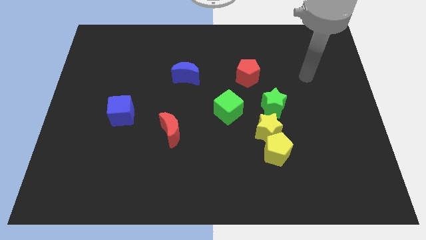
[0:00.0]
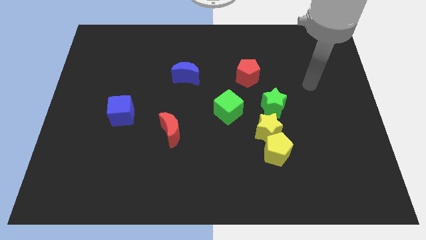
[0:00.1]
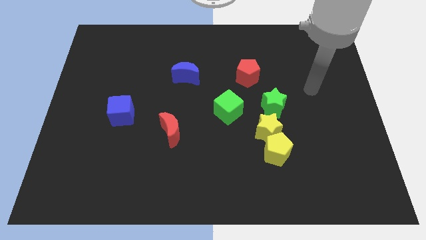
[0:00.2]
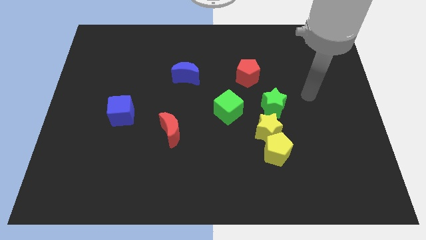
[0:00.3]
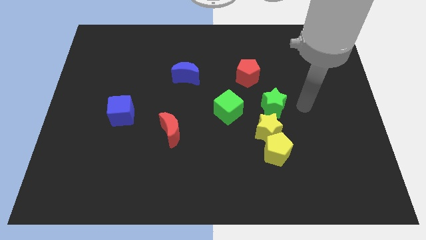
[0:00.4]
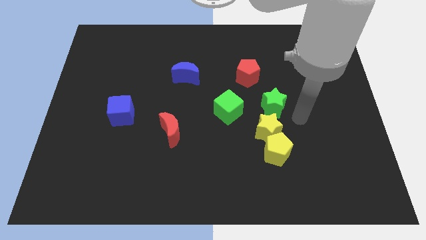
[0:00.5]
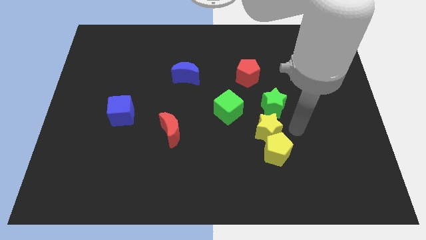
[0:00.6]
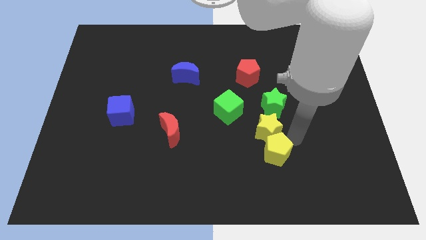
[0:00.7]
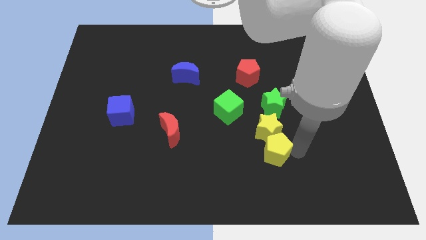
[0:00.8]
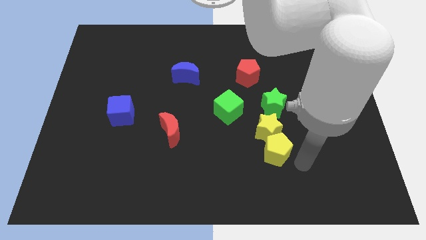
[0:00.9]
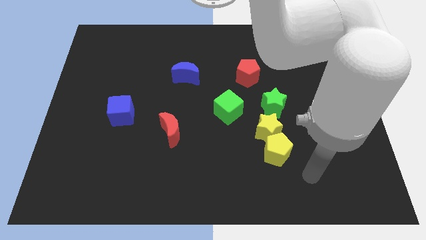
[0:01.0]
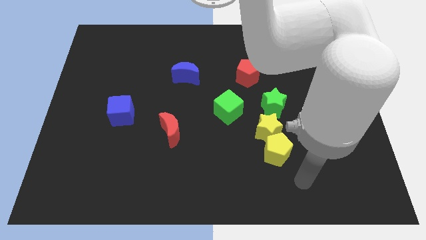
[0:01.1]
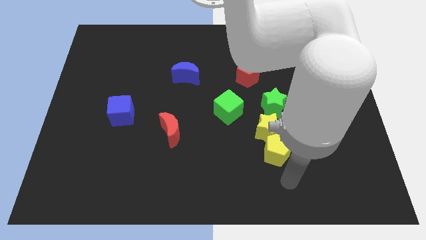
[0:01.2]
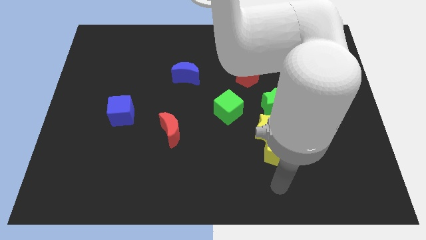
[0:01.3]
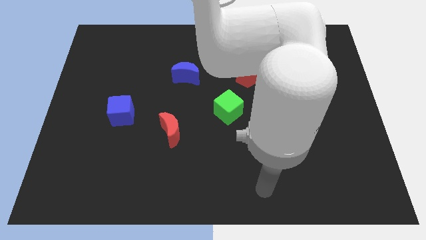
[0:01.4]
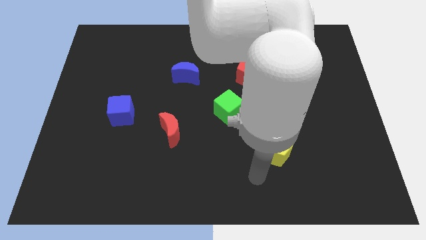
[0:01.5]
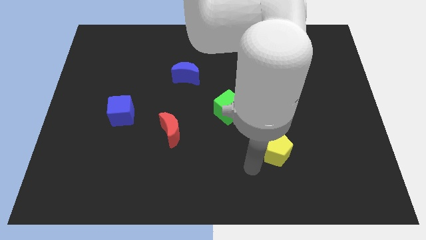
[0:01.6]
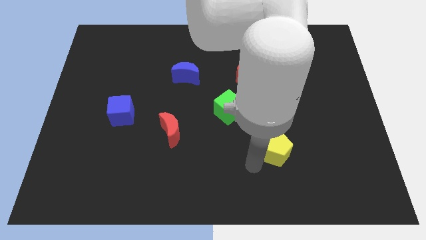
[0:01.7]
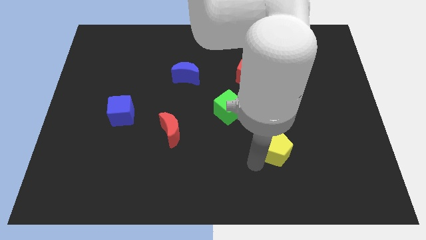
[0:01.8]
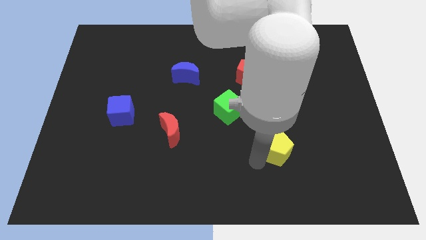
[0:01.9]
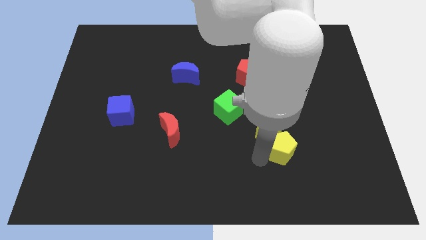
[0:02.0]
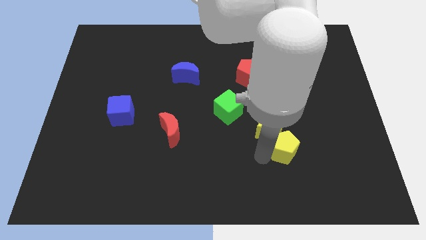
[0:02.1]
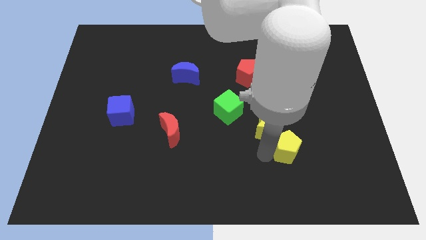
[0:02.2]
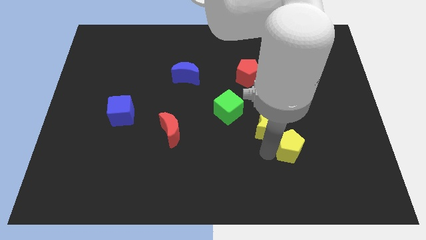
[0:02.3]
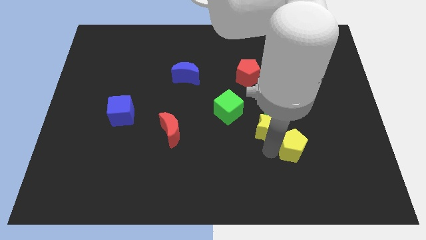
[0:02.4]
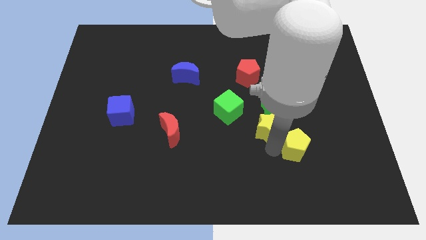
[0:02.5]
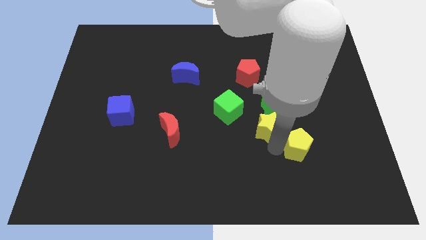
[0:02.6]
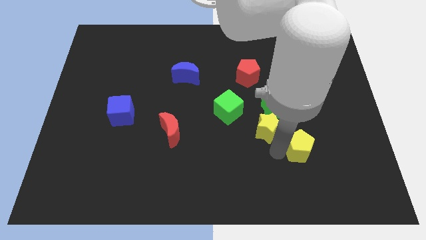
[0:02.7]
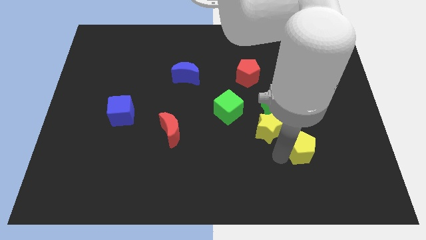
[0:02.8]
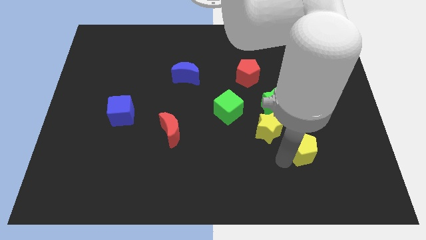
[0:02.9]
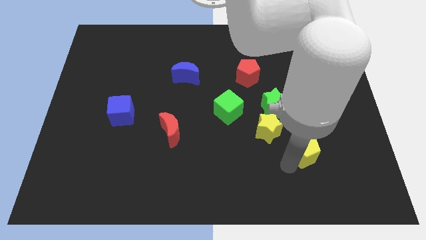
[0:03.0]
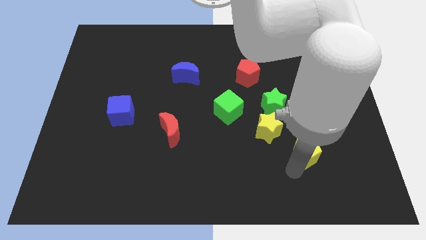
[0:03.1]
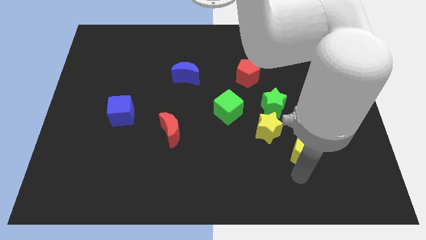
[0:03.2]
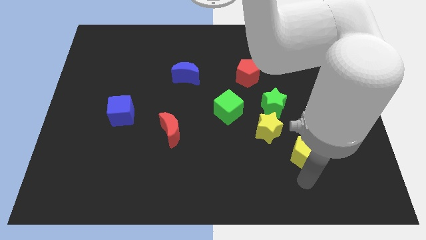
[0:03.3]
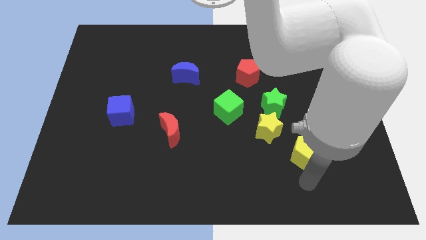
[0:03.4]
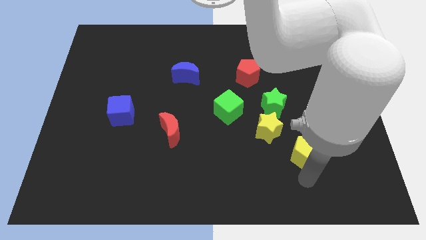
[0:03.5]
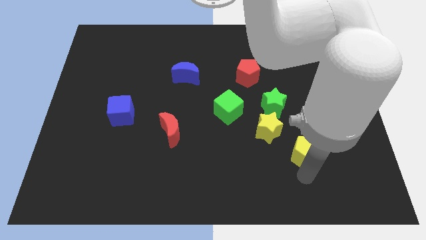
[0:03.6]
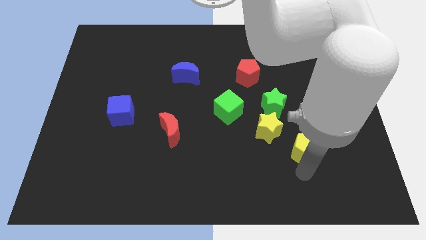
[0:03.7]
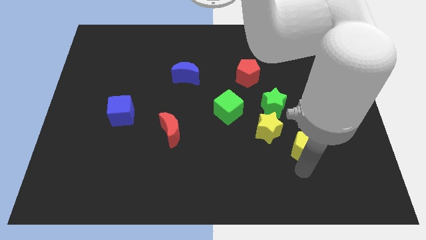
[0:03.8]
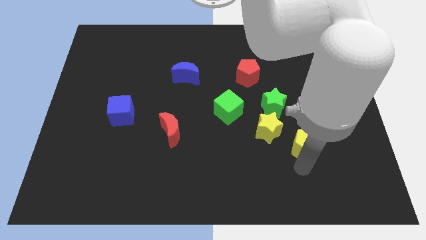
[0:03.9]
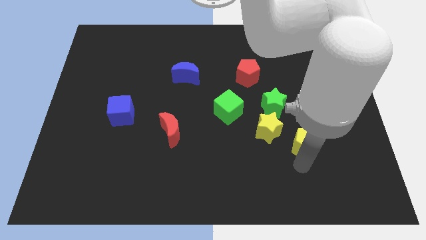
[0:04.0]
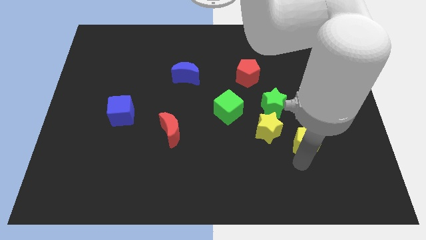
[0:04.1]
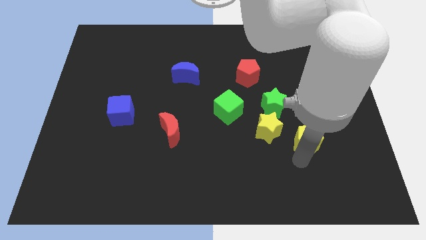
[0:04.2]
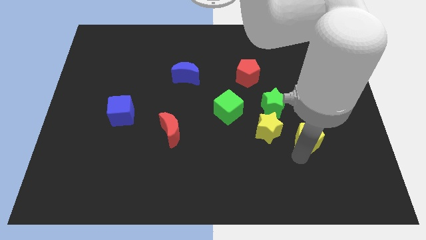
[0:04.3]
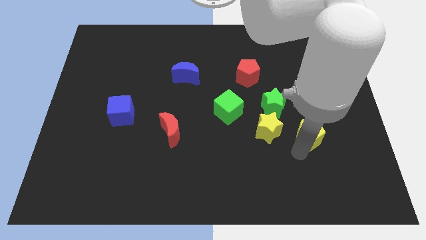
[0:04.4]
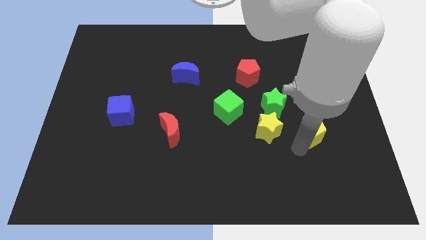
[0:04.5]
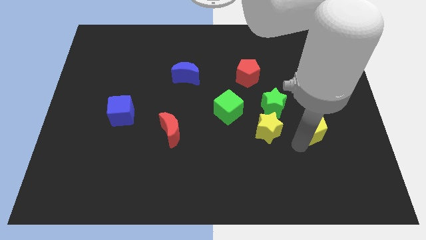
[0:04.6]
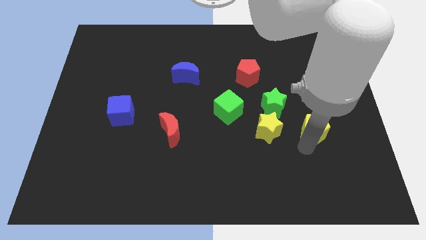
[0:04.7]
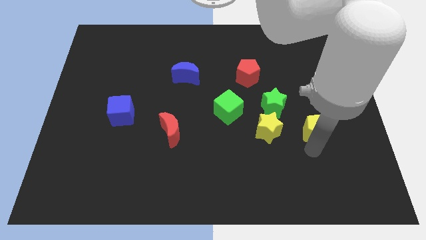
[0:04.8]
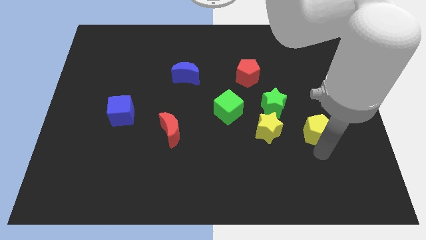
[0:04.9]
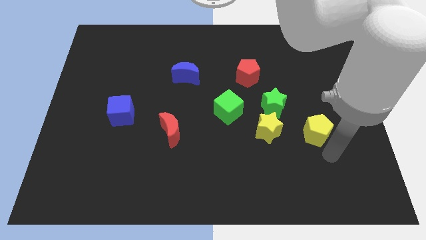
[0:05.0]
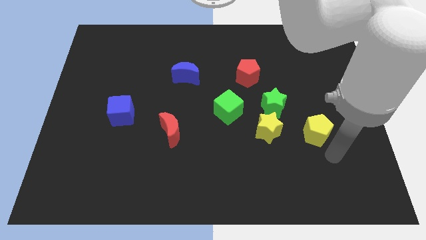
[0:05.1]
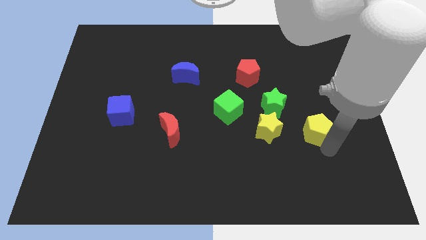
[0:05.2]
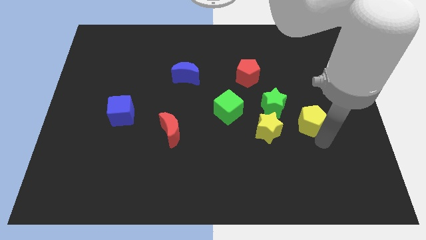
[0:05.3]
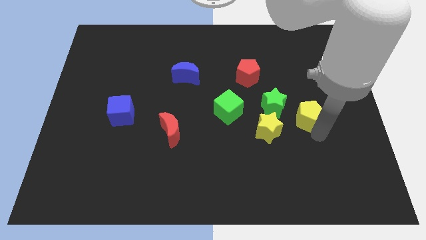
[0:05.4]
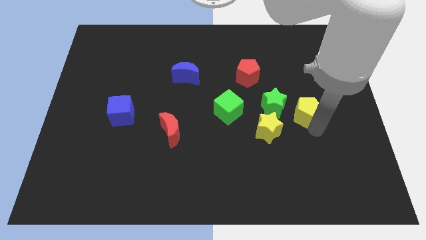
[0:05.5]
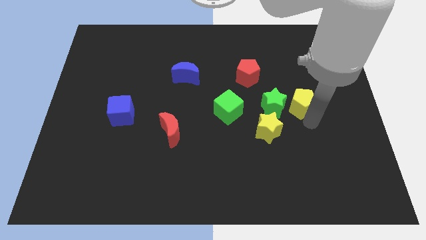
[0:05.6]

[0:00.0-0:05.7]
push the yellow pentagon to the top right of the green star

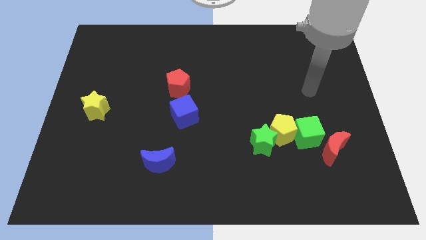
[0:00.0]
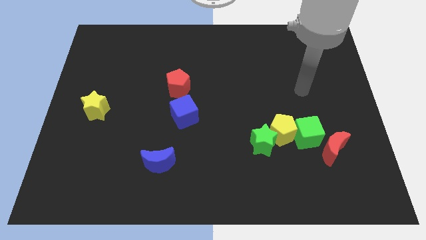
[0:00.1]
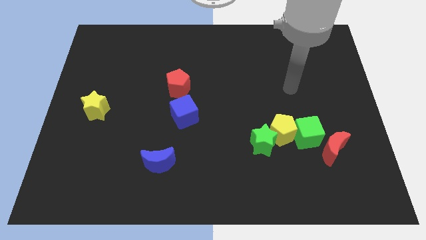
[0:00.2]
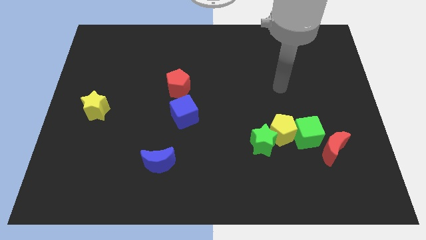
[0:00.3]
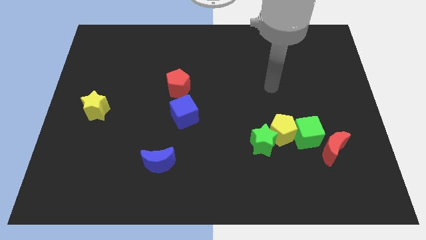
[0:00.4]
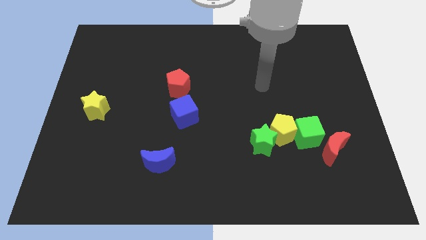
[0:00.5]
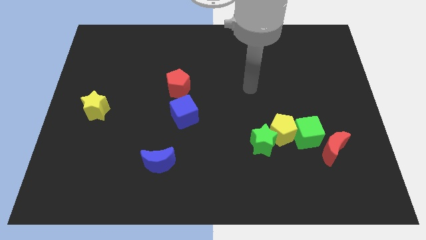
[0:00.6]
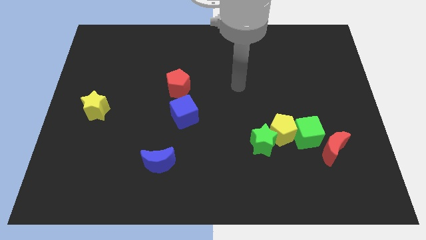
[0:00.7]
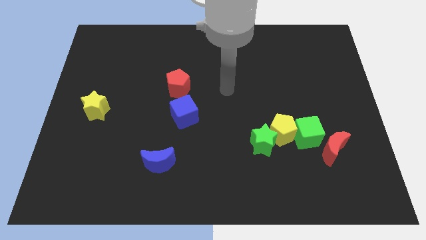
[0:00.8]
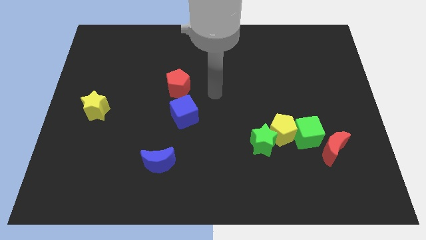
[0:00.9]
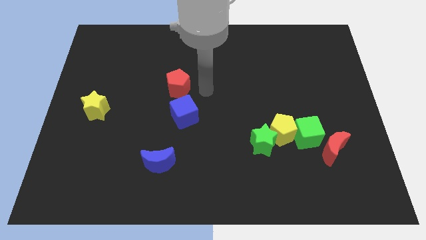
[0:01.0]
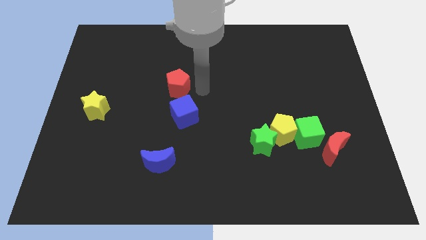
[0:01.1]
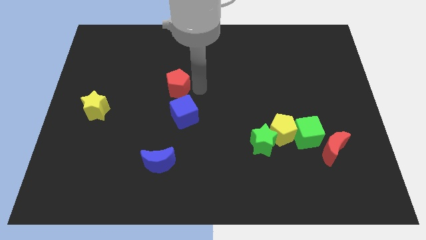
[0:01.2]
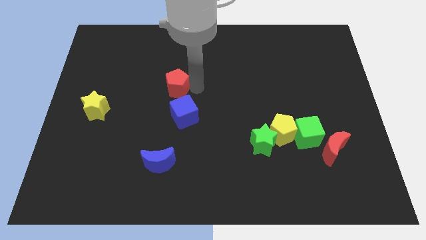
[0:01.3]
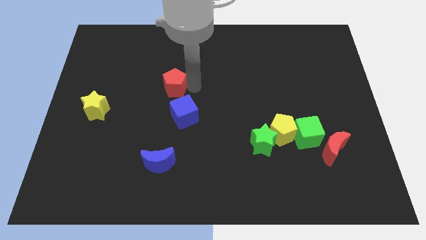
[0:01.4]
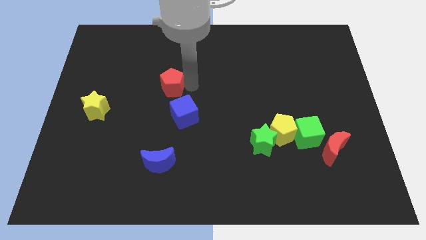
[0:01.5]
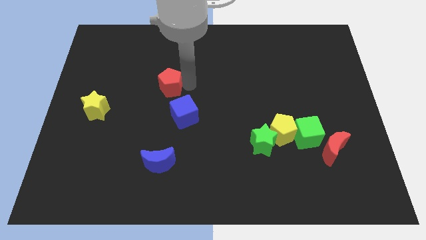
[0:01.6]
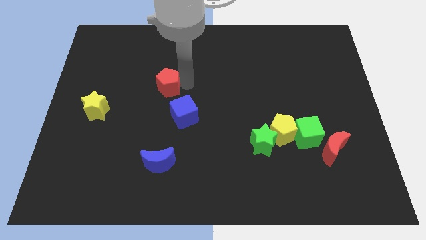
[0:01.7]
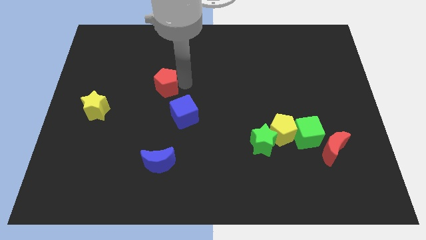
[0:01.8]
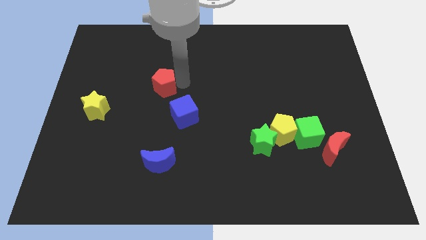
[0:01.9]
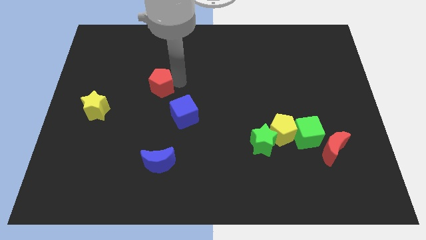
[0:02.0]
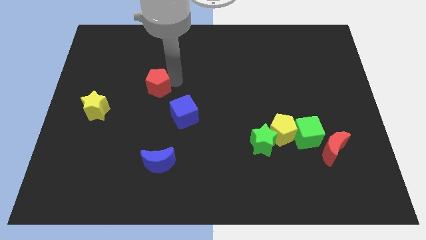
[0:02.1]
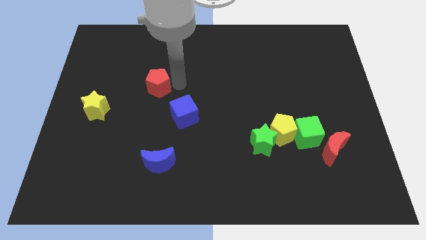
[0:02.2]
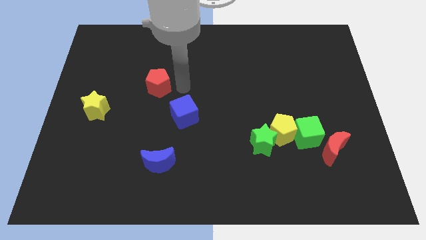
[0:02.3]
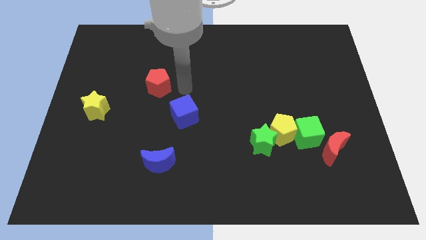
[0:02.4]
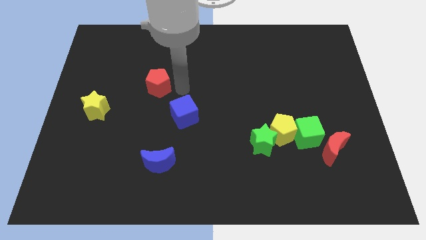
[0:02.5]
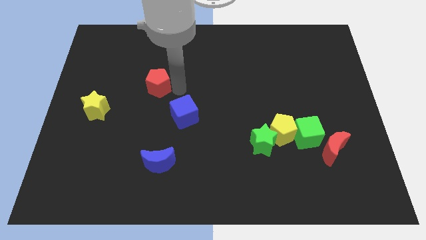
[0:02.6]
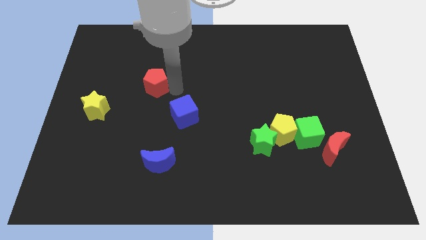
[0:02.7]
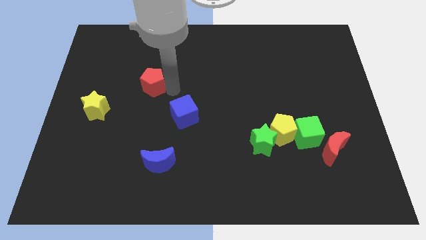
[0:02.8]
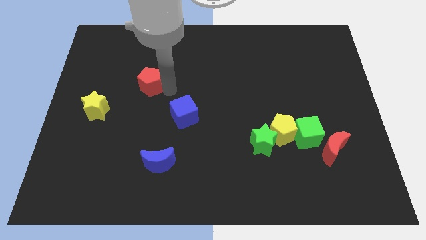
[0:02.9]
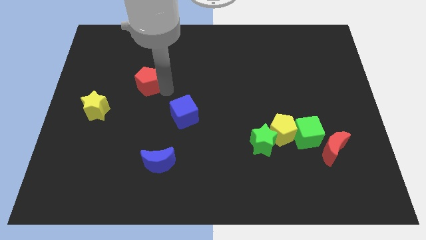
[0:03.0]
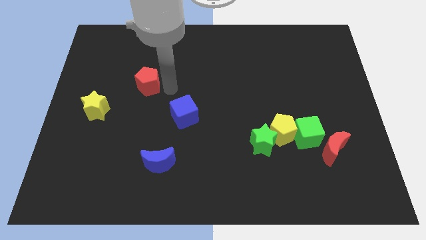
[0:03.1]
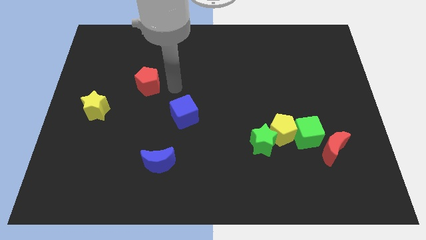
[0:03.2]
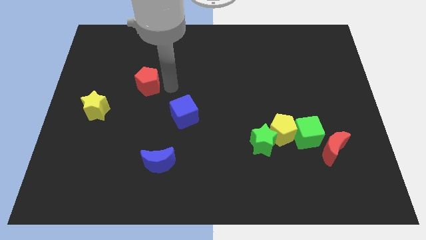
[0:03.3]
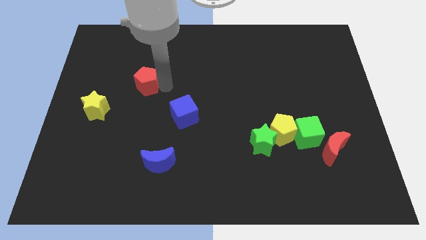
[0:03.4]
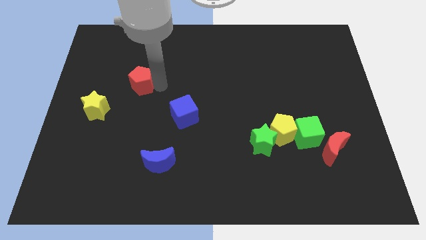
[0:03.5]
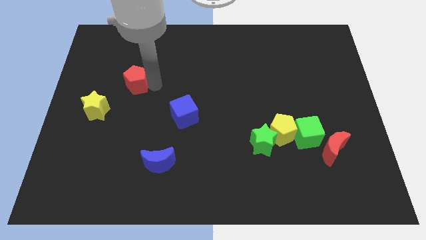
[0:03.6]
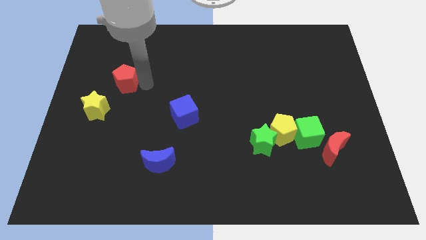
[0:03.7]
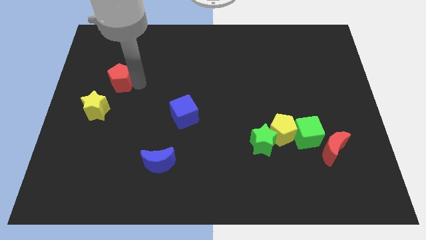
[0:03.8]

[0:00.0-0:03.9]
put the red pentagon to the top side of the yellow star
